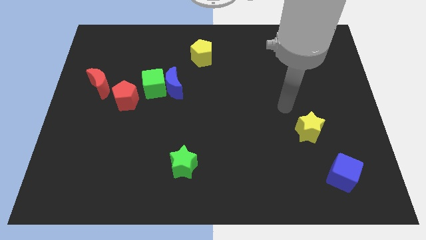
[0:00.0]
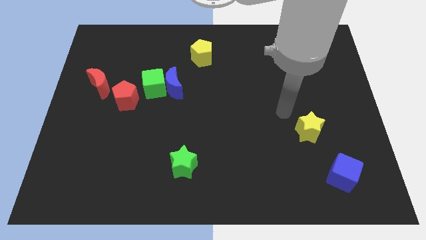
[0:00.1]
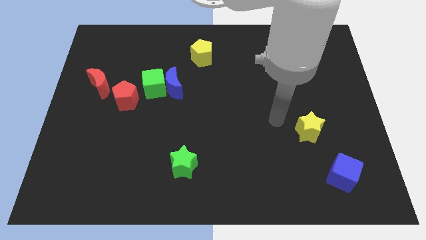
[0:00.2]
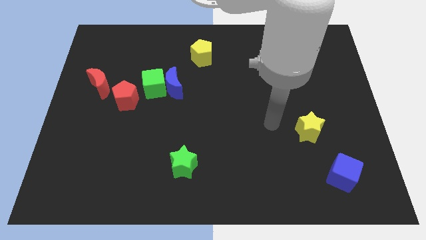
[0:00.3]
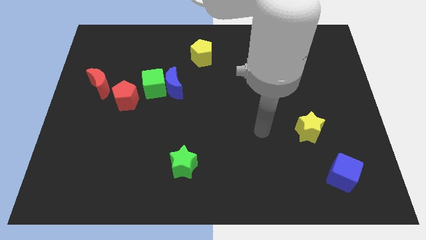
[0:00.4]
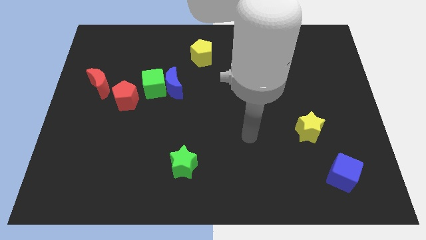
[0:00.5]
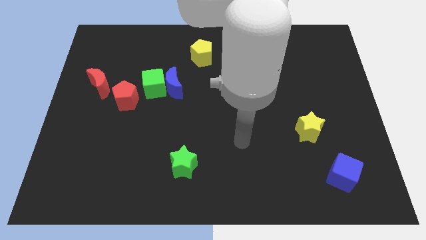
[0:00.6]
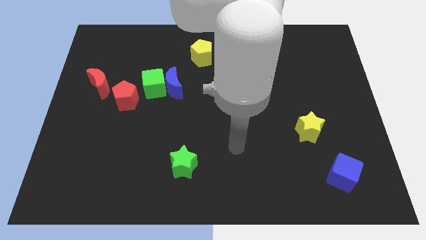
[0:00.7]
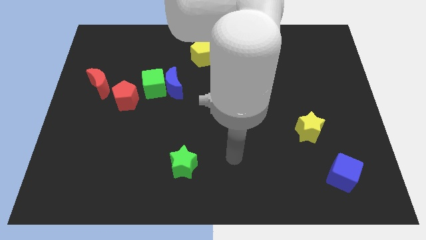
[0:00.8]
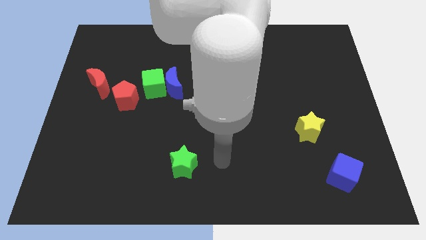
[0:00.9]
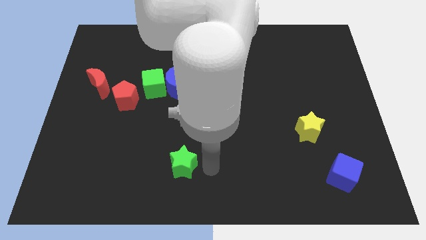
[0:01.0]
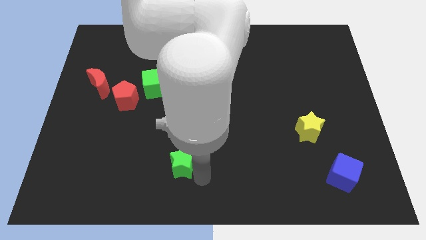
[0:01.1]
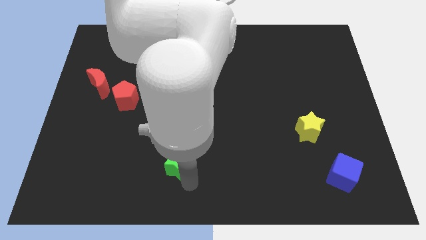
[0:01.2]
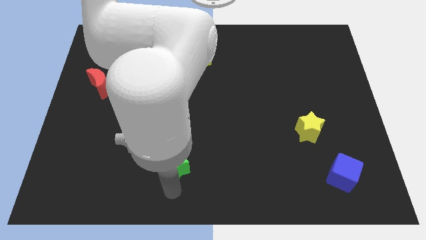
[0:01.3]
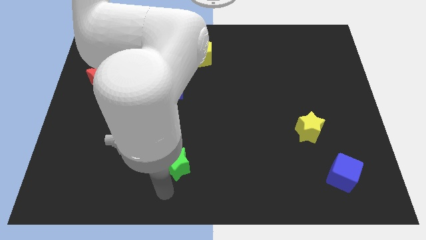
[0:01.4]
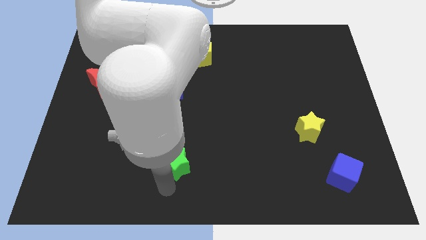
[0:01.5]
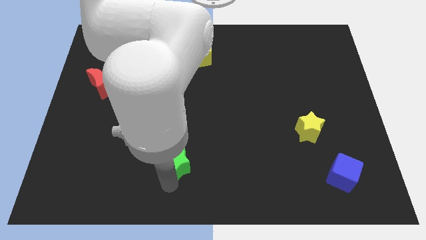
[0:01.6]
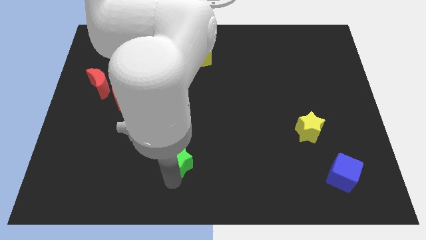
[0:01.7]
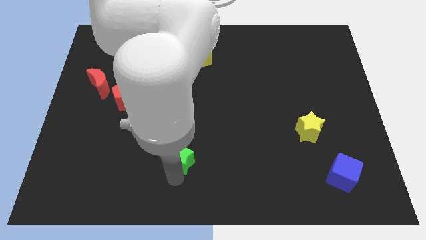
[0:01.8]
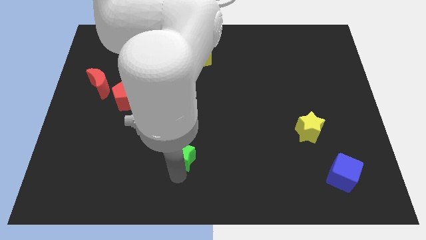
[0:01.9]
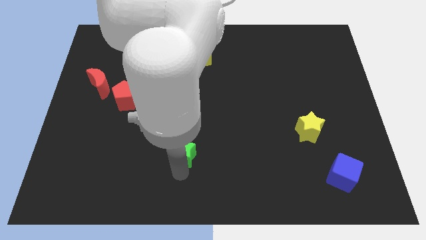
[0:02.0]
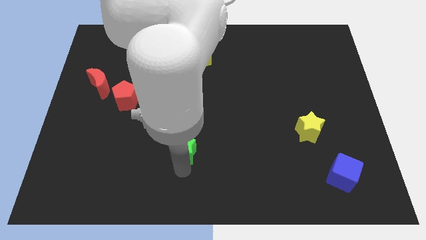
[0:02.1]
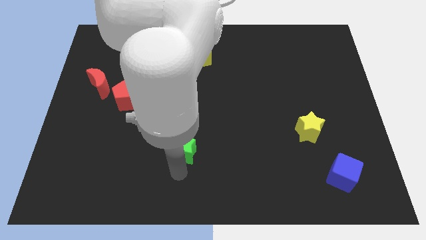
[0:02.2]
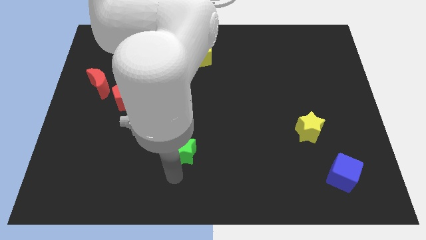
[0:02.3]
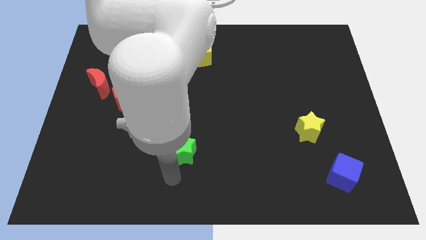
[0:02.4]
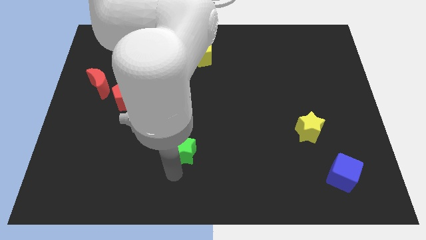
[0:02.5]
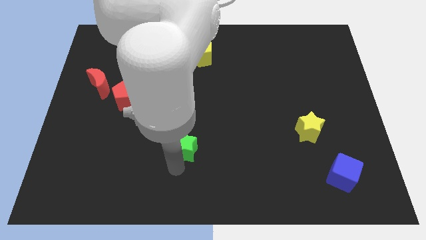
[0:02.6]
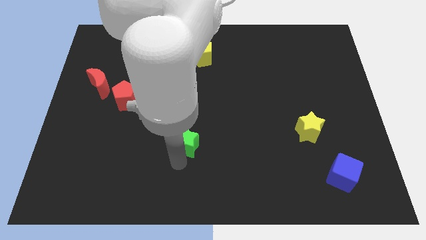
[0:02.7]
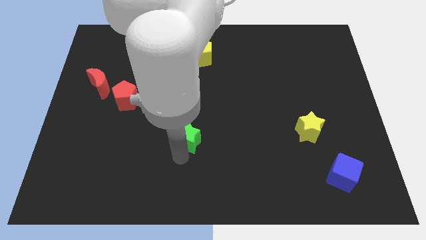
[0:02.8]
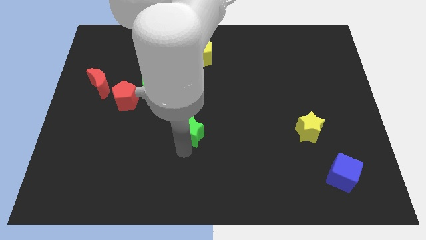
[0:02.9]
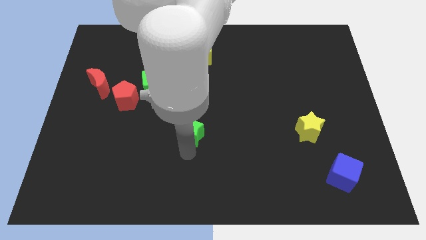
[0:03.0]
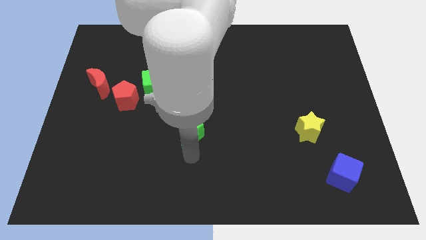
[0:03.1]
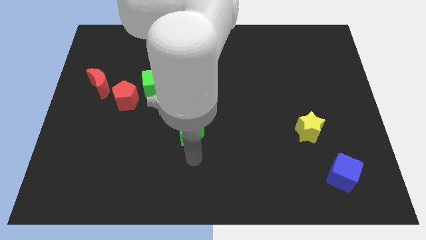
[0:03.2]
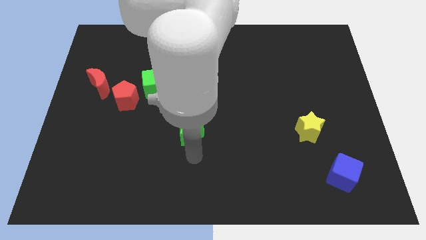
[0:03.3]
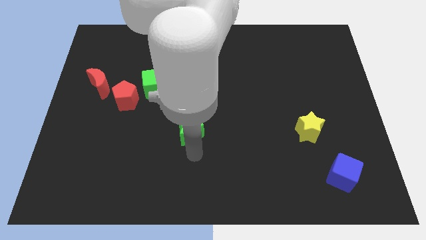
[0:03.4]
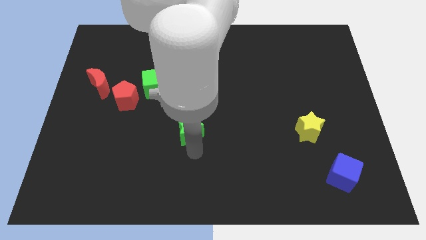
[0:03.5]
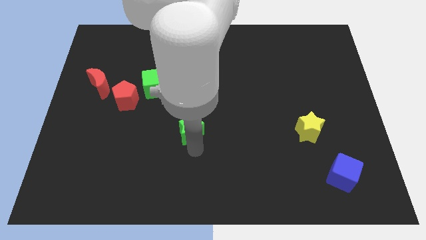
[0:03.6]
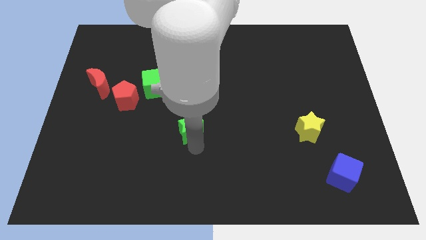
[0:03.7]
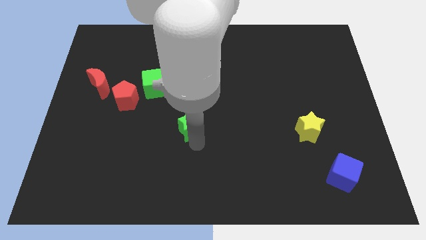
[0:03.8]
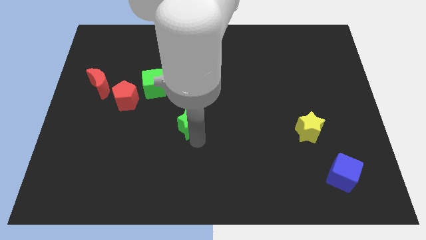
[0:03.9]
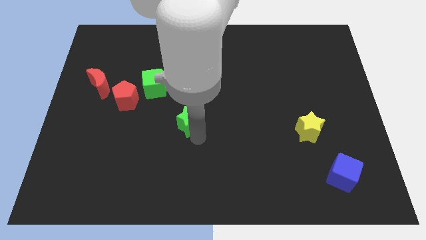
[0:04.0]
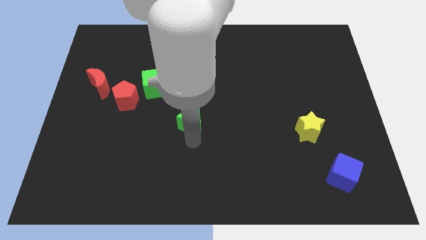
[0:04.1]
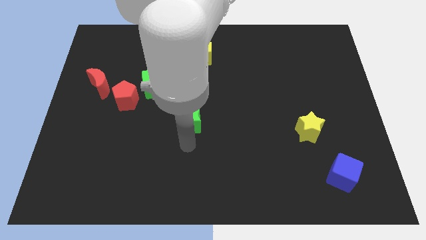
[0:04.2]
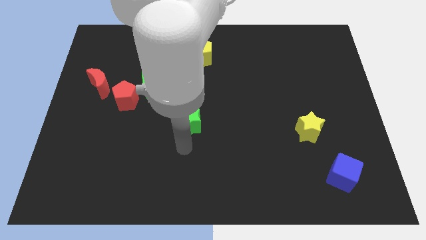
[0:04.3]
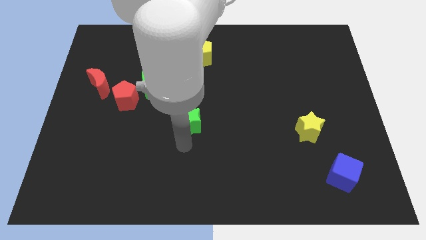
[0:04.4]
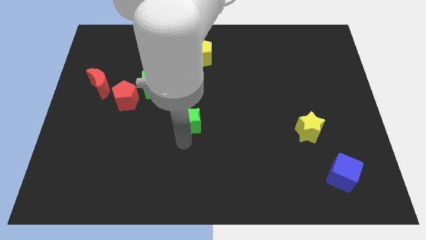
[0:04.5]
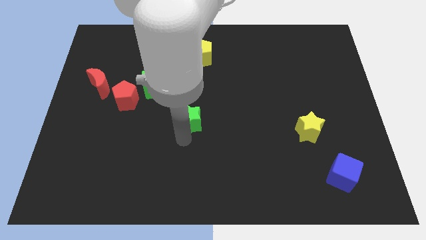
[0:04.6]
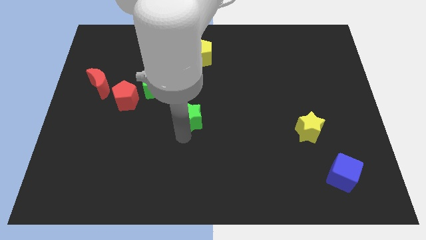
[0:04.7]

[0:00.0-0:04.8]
move the green star to the bottom right of the blue moon

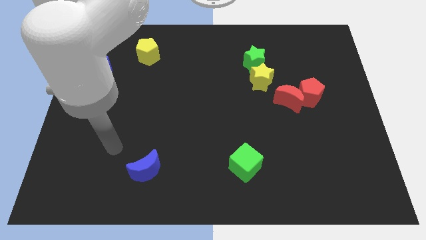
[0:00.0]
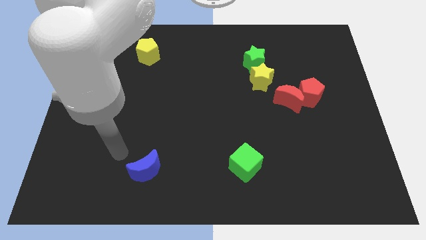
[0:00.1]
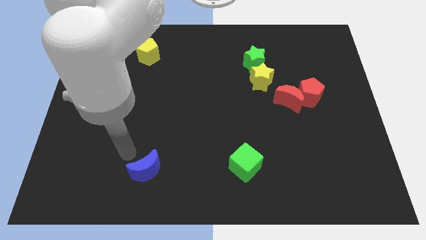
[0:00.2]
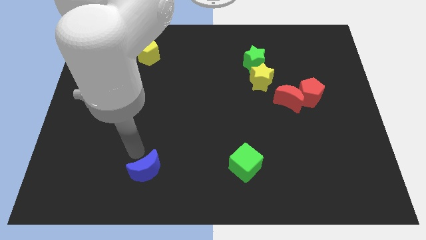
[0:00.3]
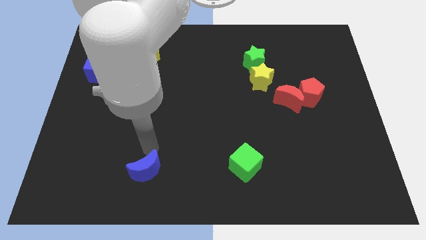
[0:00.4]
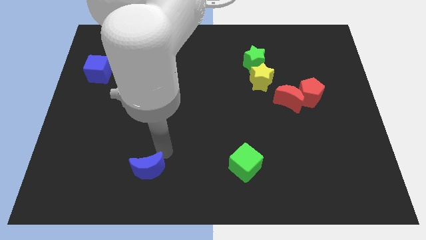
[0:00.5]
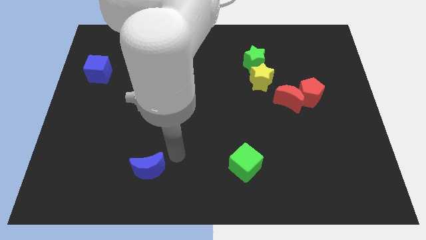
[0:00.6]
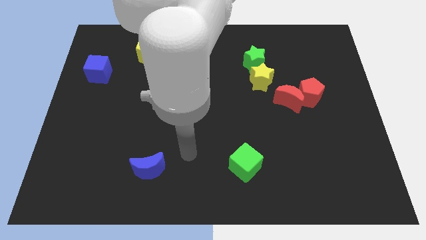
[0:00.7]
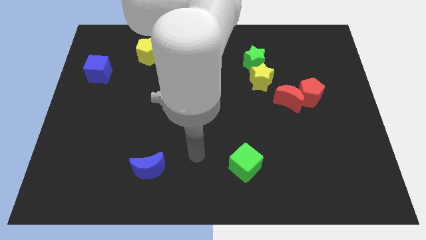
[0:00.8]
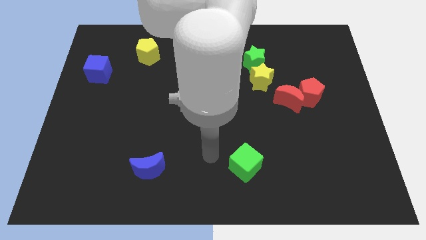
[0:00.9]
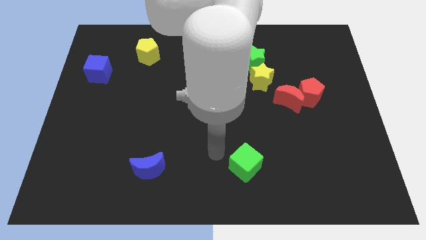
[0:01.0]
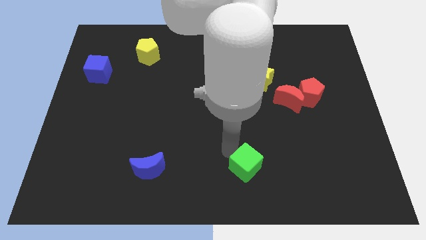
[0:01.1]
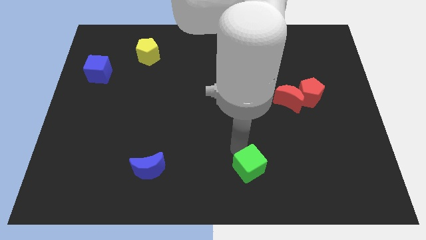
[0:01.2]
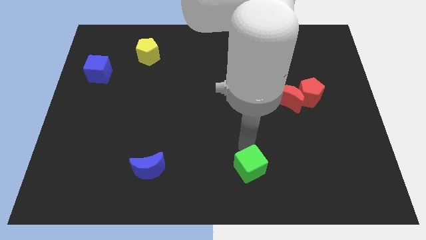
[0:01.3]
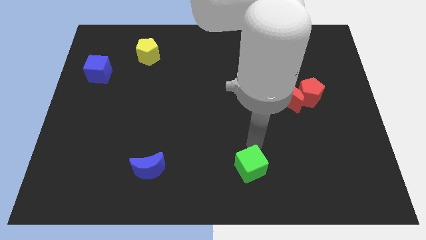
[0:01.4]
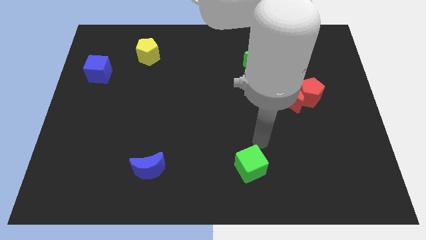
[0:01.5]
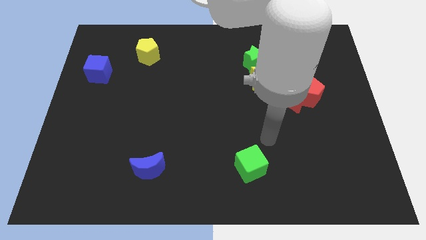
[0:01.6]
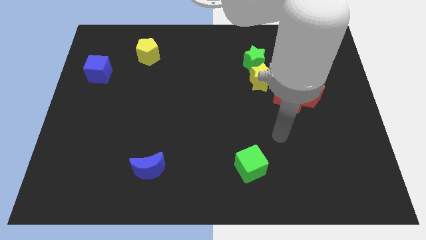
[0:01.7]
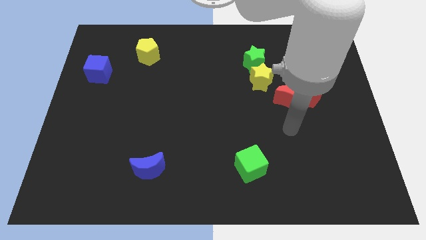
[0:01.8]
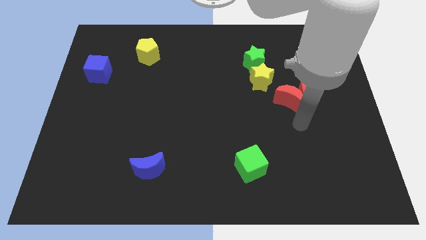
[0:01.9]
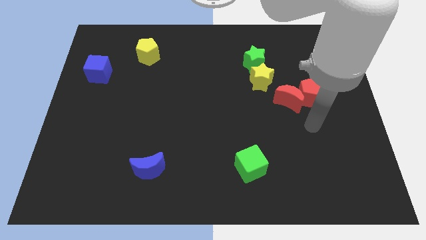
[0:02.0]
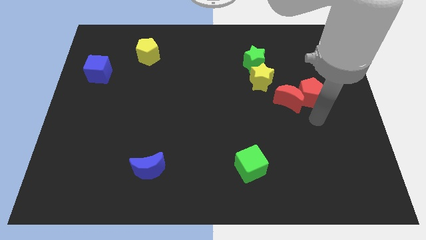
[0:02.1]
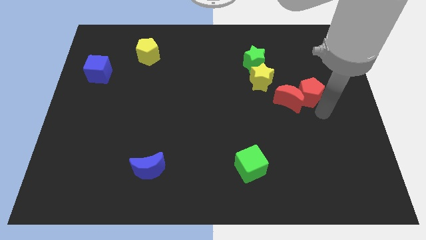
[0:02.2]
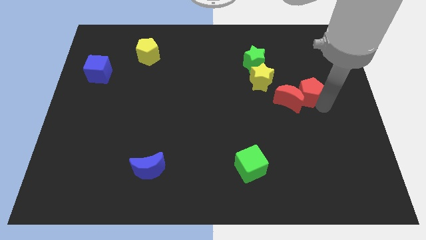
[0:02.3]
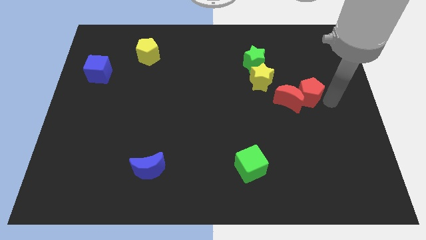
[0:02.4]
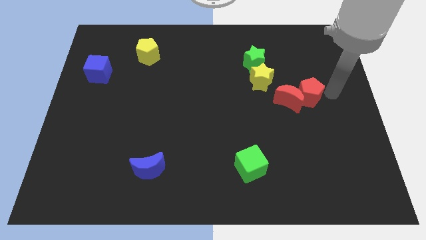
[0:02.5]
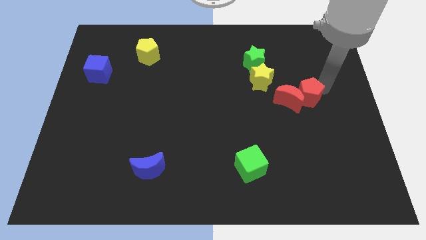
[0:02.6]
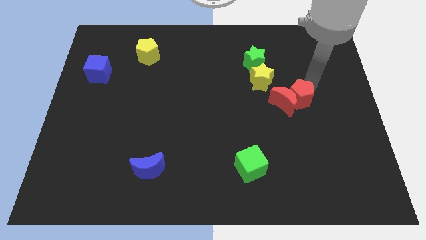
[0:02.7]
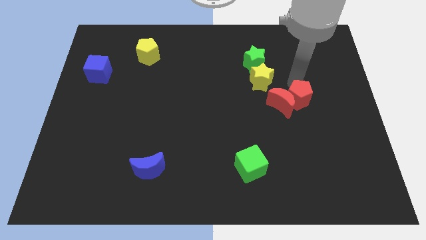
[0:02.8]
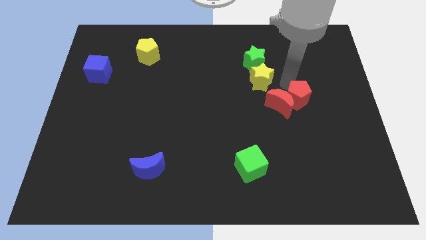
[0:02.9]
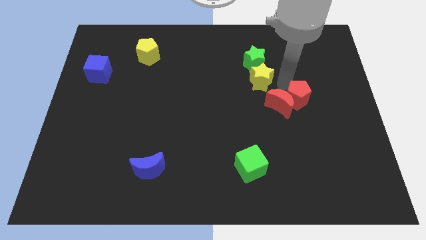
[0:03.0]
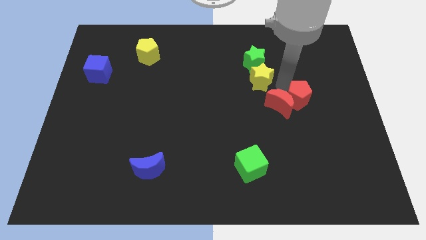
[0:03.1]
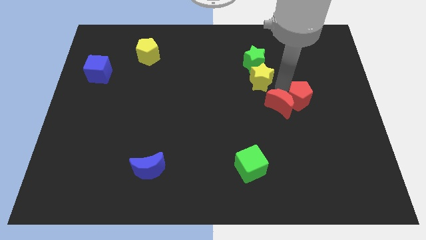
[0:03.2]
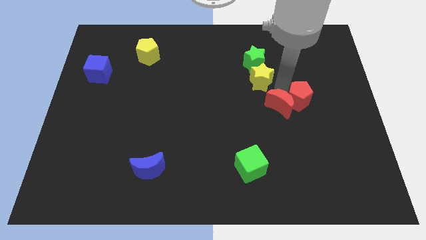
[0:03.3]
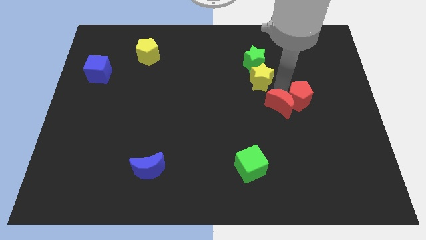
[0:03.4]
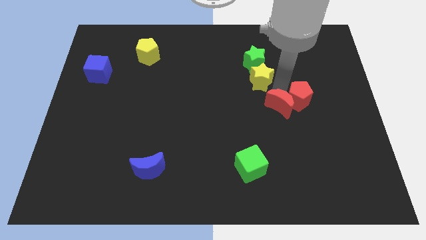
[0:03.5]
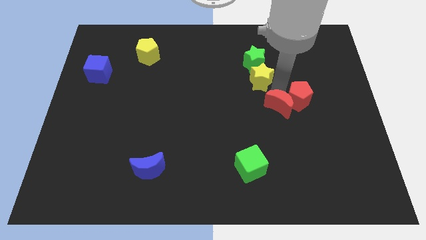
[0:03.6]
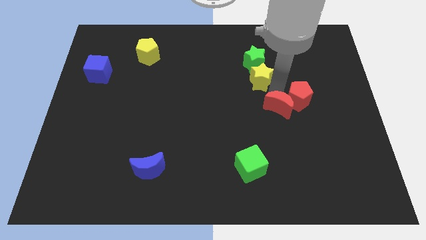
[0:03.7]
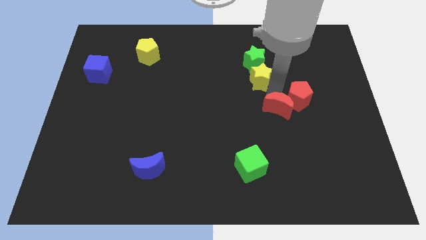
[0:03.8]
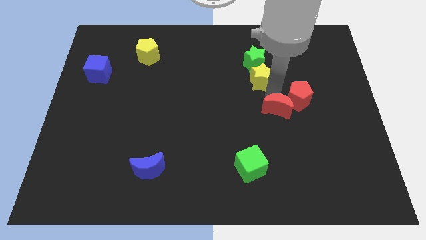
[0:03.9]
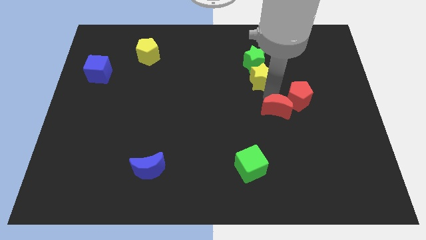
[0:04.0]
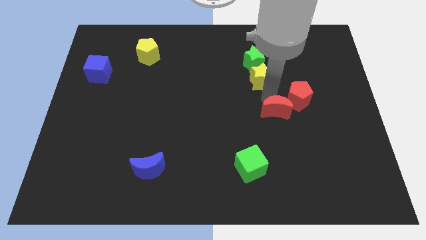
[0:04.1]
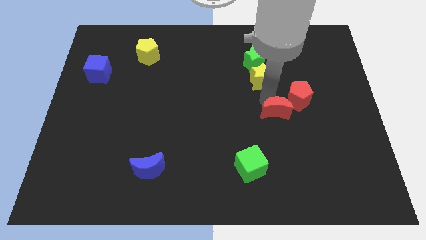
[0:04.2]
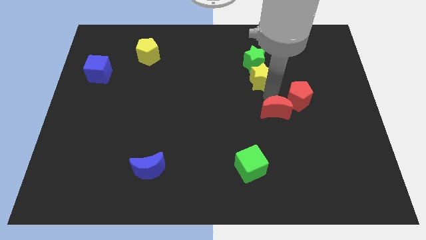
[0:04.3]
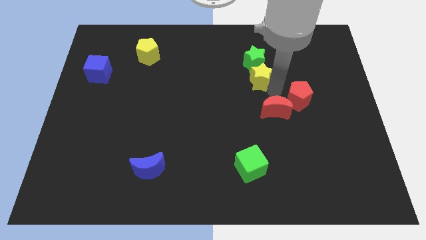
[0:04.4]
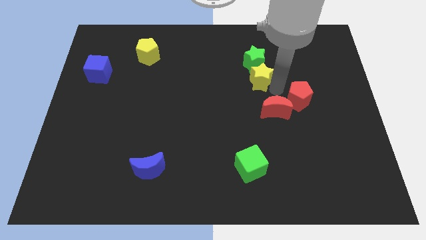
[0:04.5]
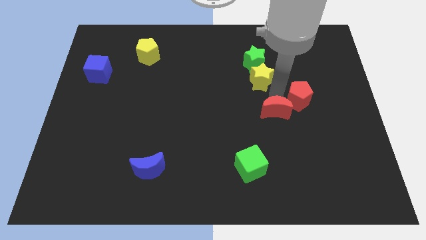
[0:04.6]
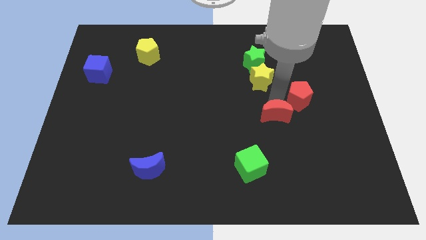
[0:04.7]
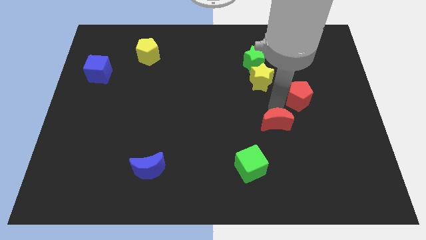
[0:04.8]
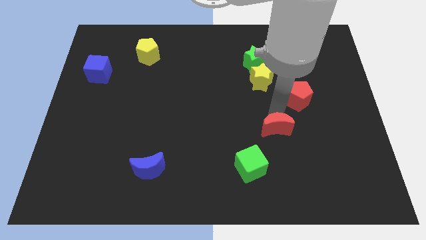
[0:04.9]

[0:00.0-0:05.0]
slide the red moon to the top right of the green cube
